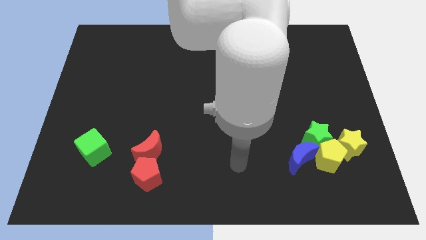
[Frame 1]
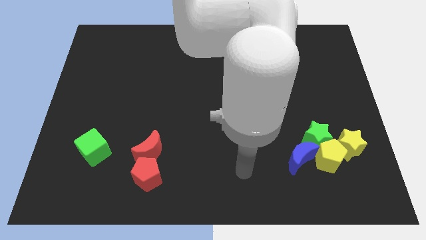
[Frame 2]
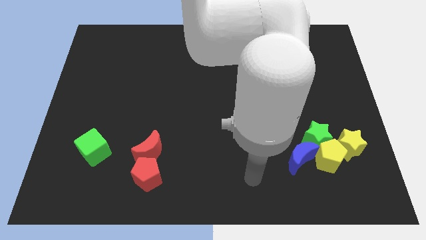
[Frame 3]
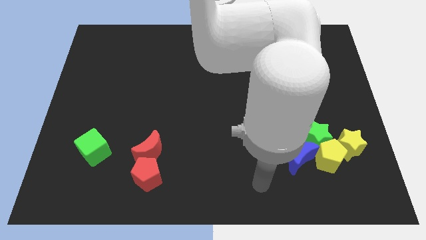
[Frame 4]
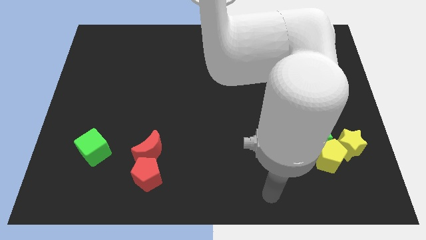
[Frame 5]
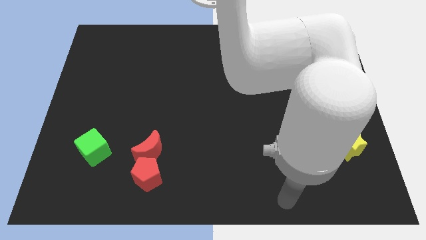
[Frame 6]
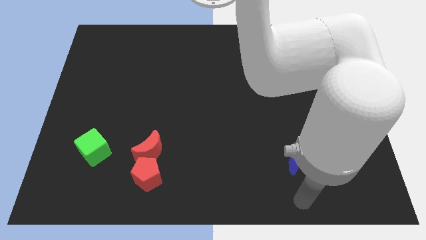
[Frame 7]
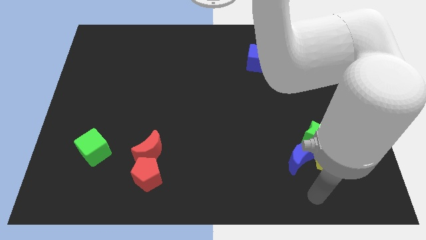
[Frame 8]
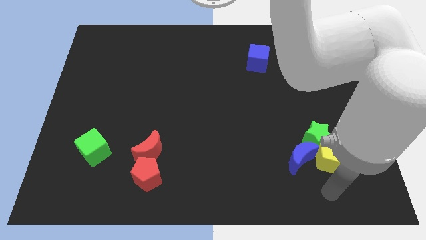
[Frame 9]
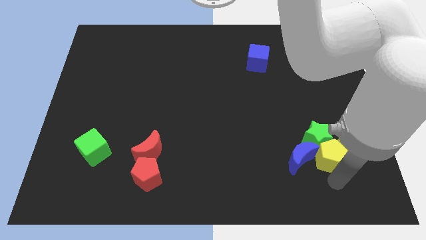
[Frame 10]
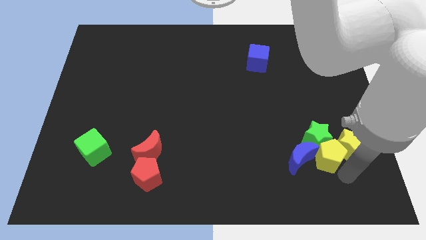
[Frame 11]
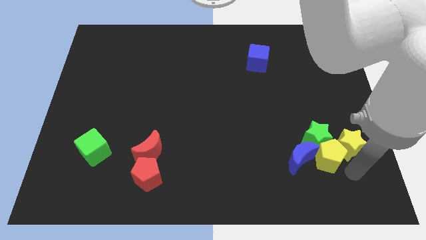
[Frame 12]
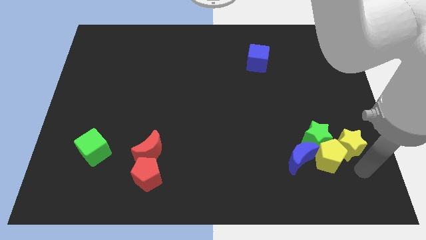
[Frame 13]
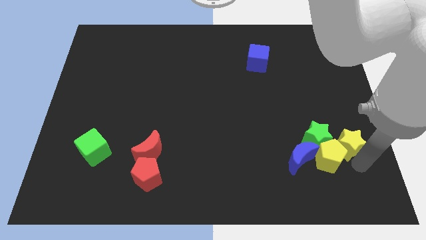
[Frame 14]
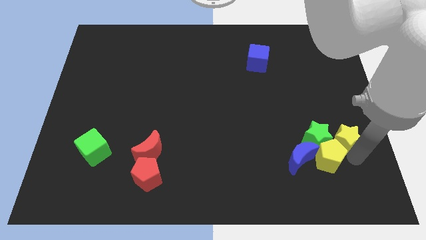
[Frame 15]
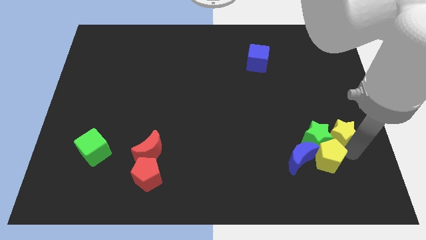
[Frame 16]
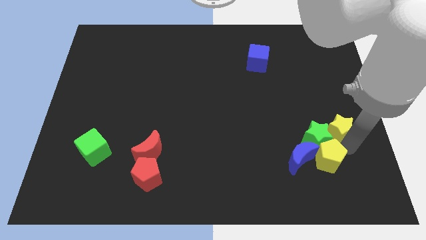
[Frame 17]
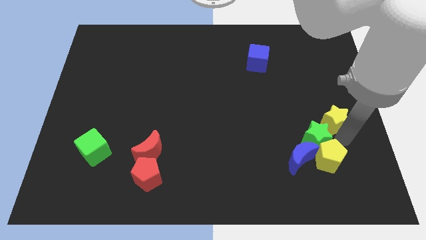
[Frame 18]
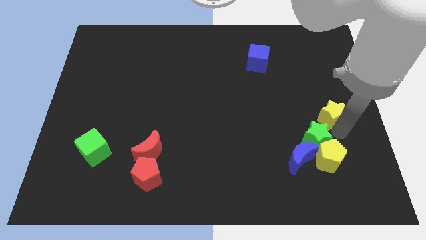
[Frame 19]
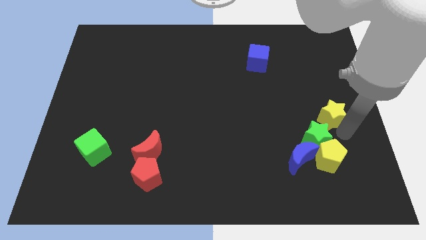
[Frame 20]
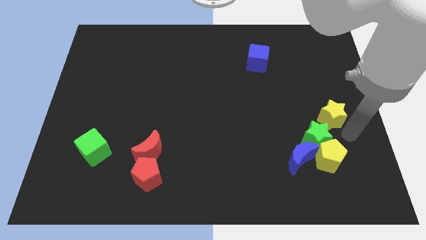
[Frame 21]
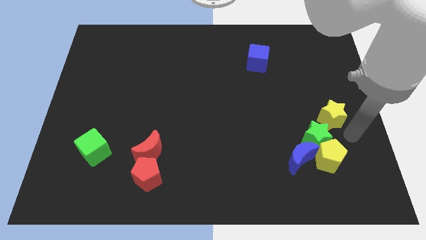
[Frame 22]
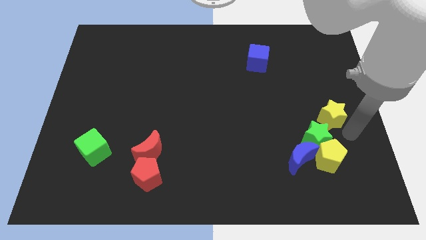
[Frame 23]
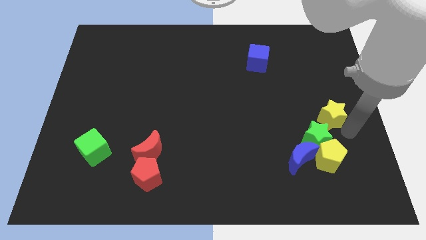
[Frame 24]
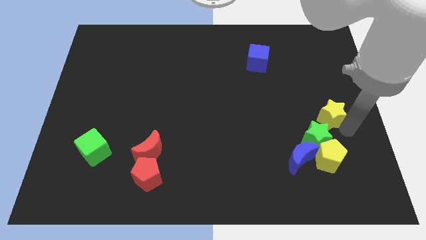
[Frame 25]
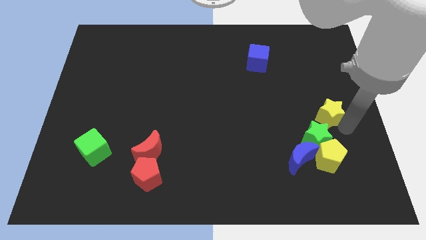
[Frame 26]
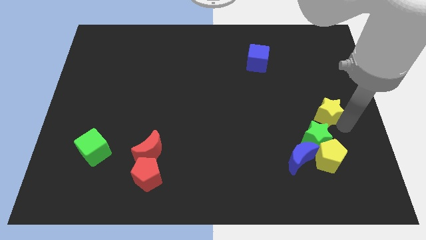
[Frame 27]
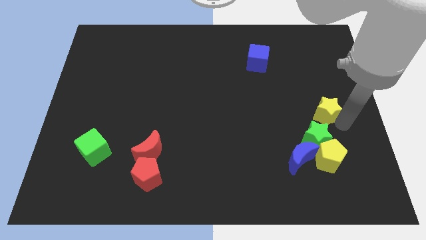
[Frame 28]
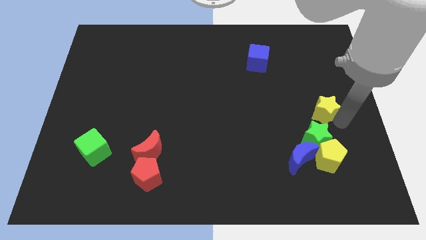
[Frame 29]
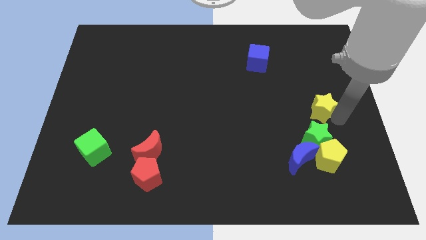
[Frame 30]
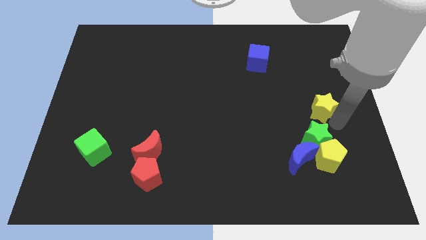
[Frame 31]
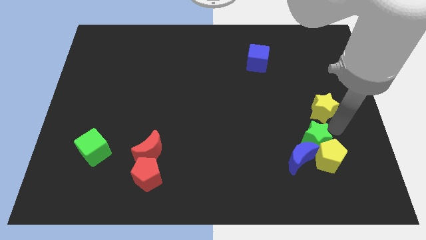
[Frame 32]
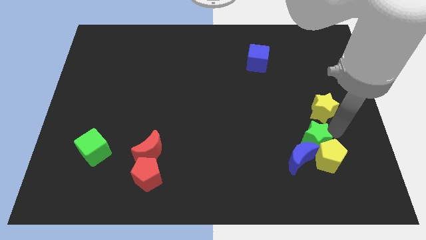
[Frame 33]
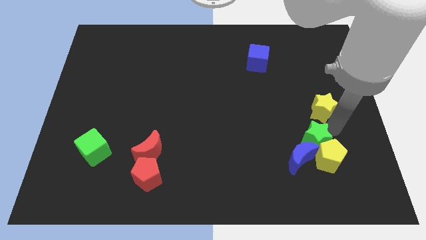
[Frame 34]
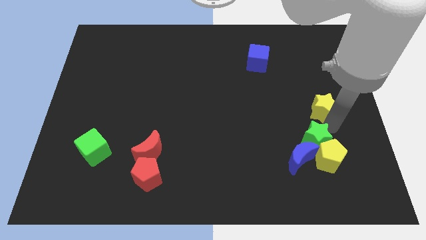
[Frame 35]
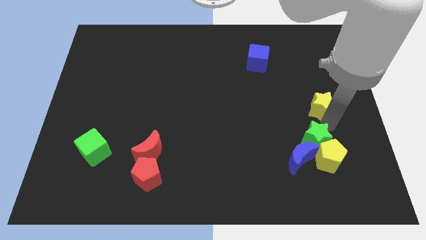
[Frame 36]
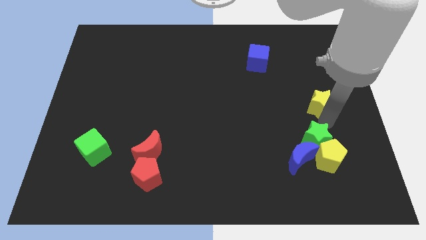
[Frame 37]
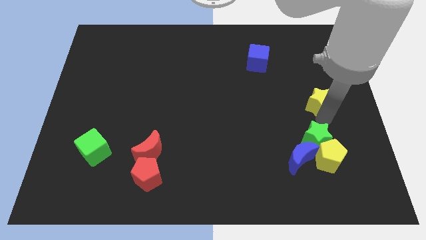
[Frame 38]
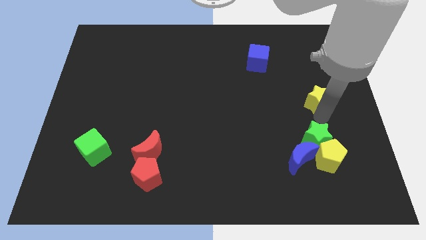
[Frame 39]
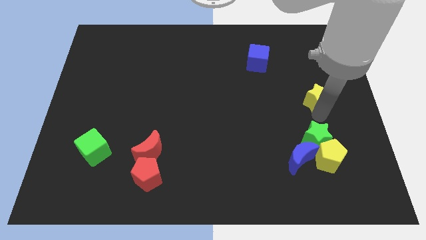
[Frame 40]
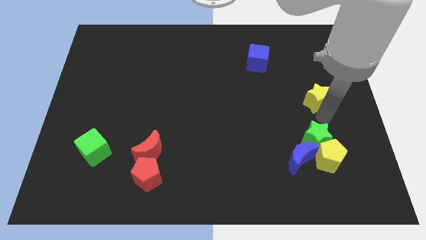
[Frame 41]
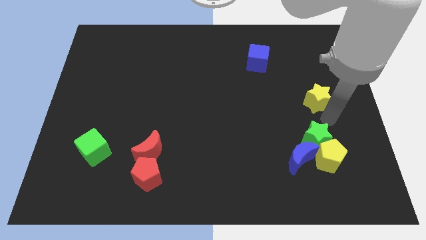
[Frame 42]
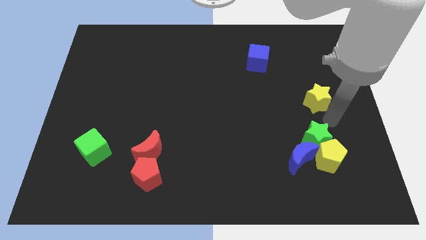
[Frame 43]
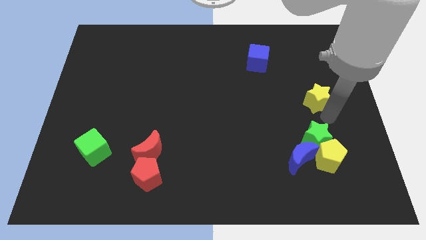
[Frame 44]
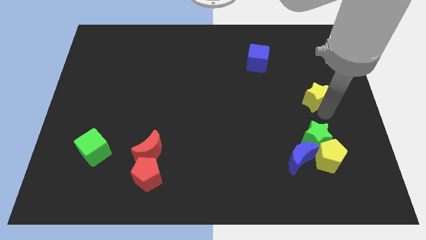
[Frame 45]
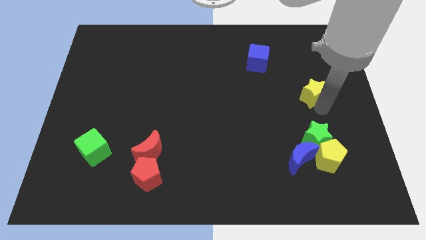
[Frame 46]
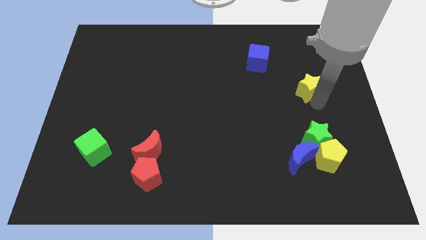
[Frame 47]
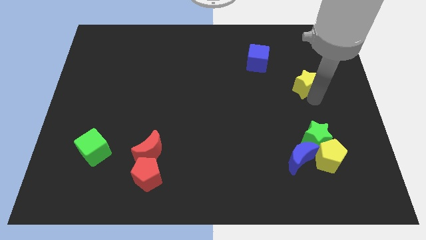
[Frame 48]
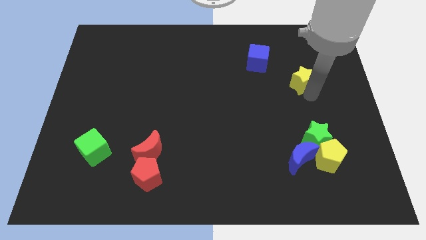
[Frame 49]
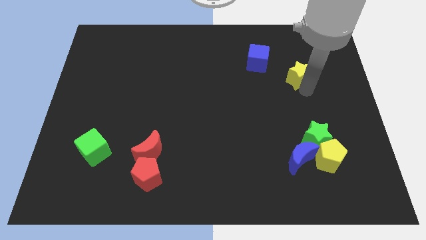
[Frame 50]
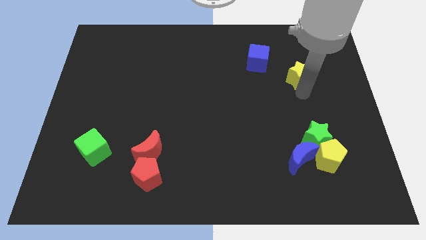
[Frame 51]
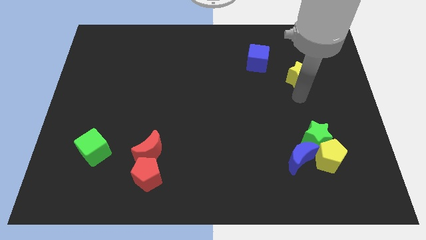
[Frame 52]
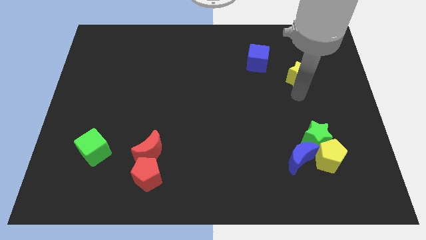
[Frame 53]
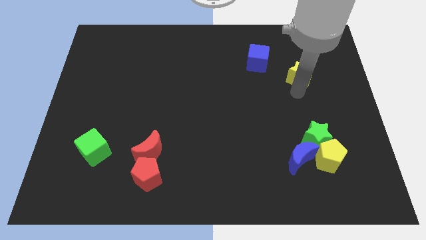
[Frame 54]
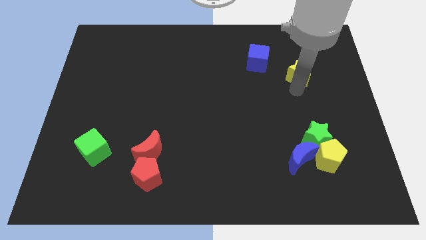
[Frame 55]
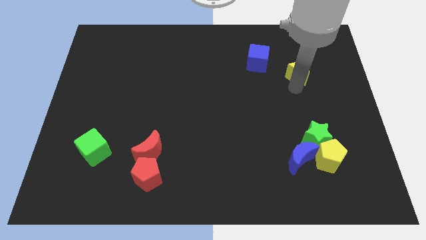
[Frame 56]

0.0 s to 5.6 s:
move the yellow star to the right of the blue cube
